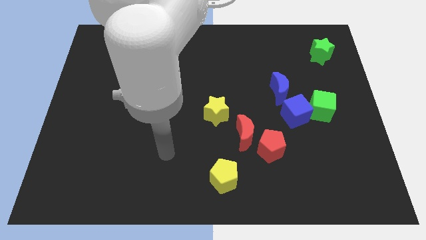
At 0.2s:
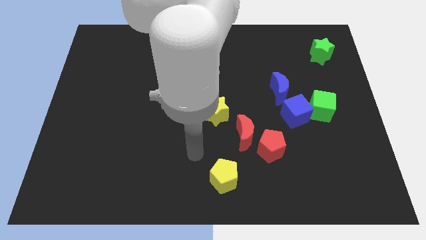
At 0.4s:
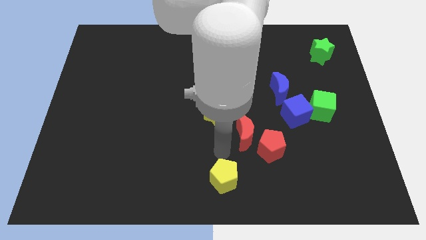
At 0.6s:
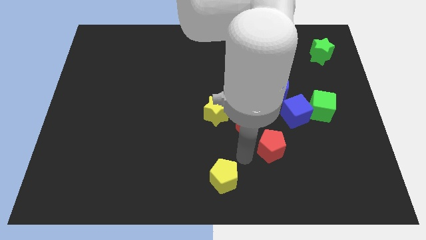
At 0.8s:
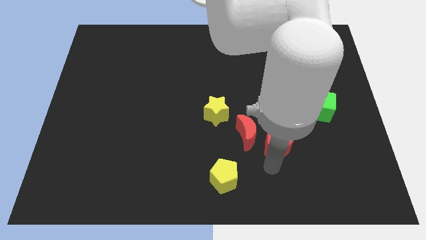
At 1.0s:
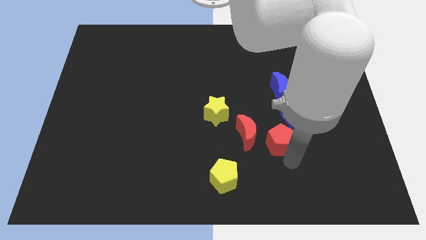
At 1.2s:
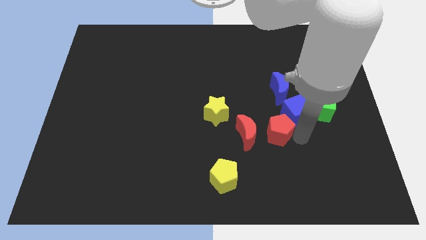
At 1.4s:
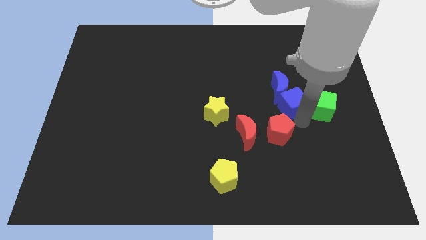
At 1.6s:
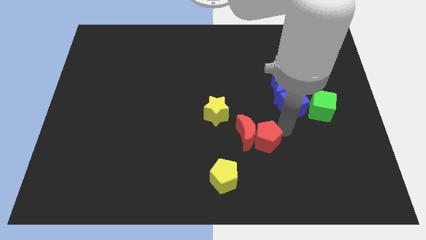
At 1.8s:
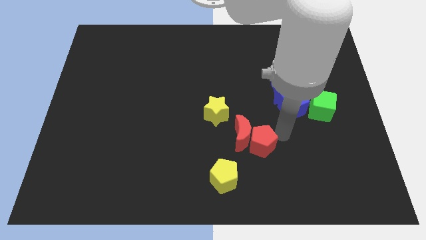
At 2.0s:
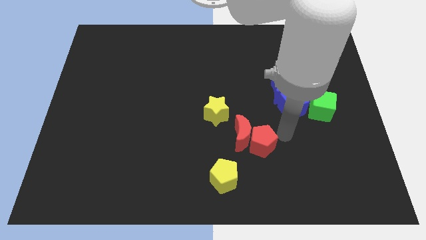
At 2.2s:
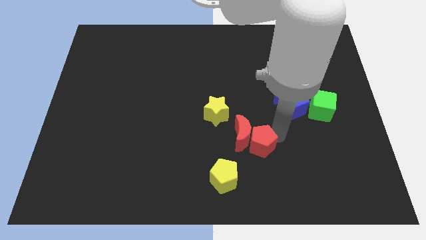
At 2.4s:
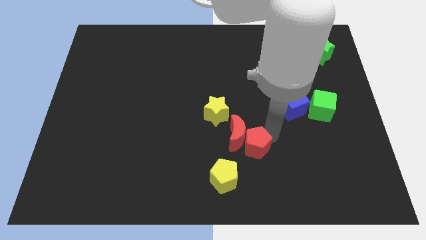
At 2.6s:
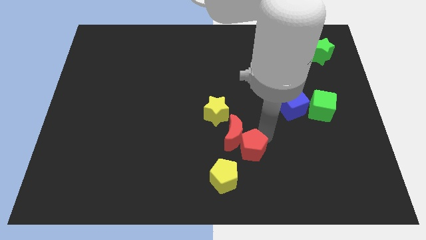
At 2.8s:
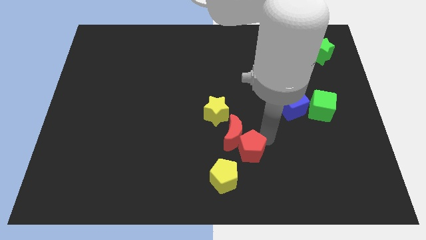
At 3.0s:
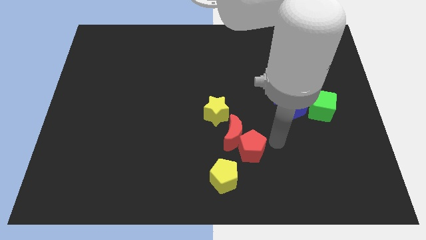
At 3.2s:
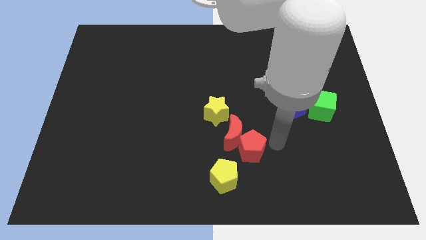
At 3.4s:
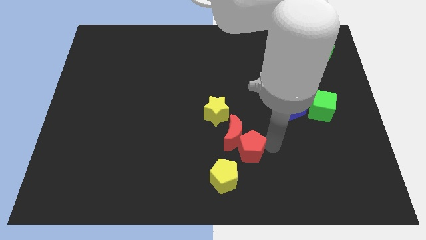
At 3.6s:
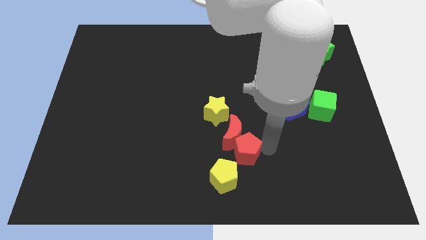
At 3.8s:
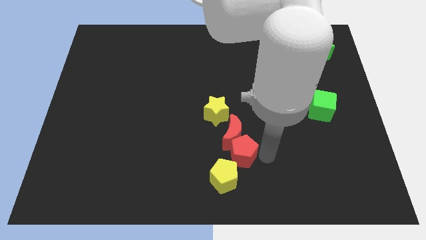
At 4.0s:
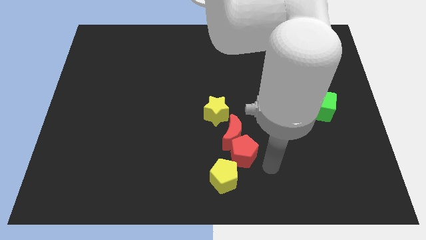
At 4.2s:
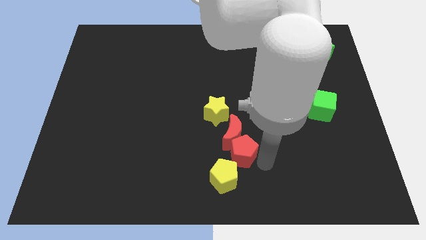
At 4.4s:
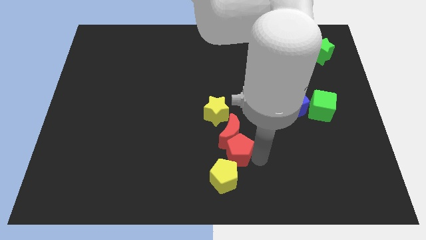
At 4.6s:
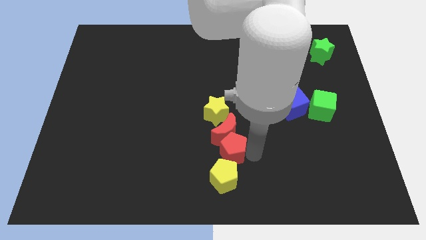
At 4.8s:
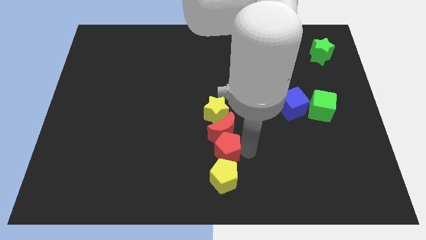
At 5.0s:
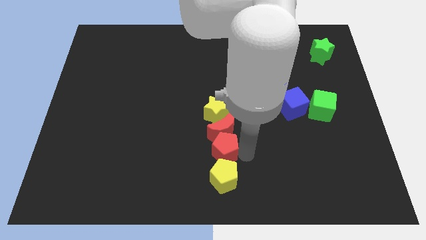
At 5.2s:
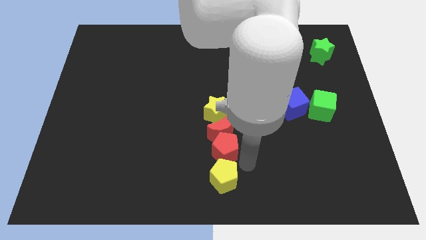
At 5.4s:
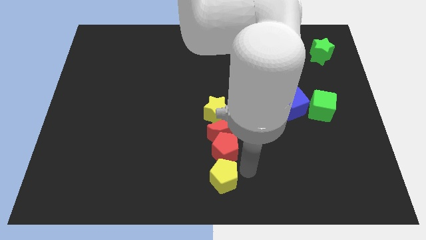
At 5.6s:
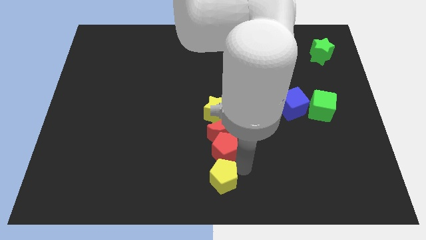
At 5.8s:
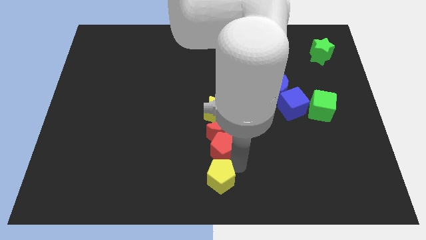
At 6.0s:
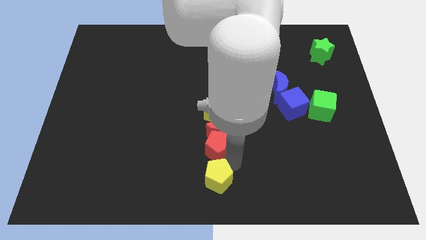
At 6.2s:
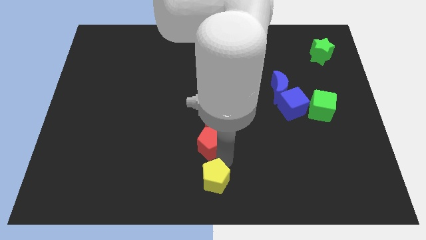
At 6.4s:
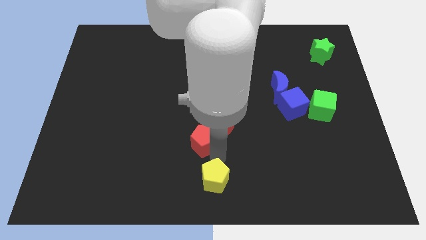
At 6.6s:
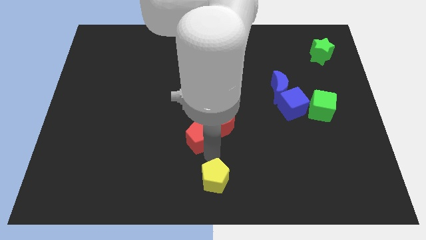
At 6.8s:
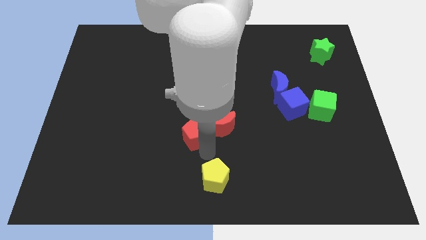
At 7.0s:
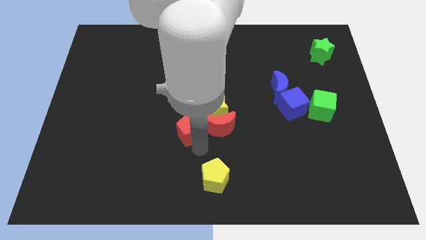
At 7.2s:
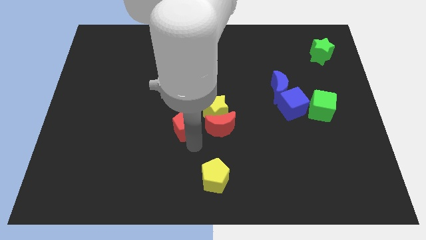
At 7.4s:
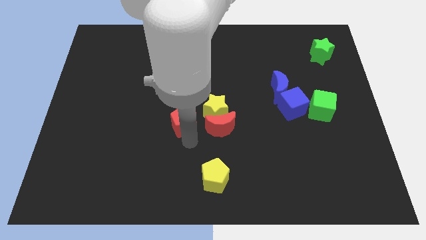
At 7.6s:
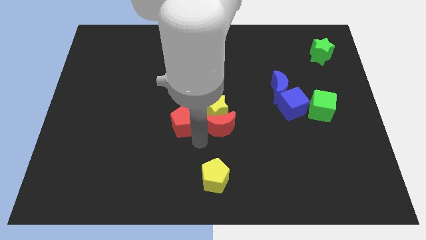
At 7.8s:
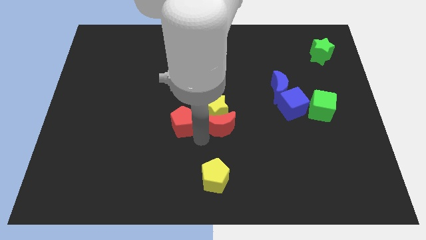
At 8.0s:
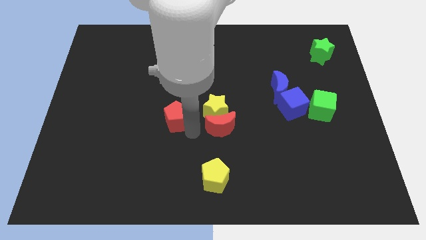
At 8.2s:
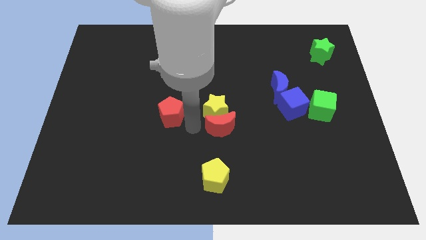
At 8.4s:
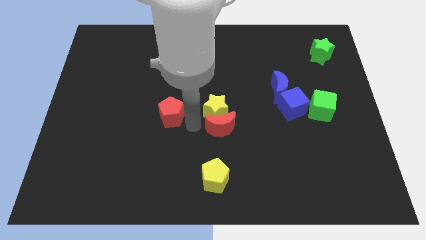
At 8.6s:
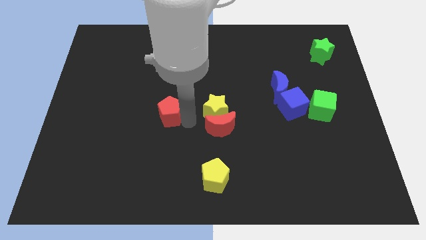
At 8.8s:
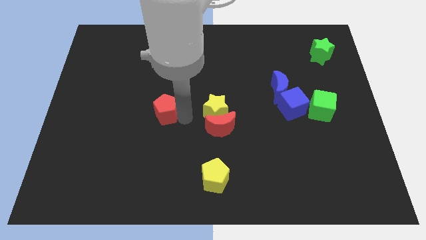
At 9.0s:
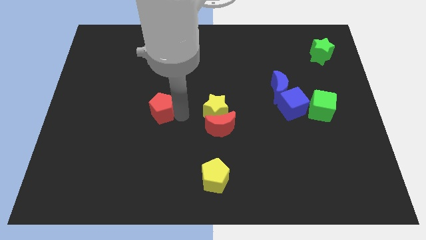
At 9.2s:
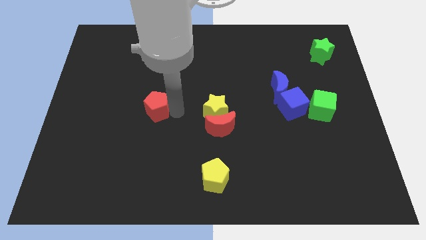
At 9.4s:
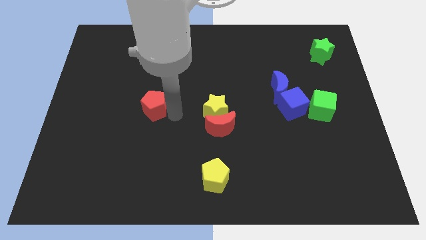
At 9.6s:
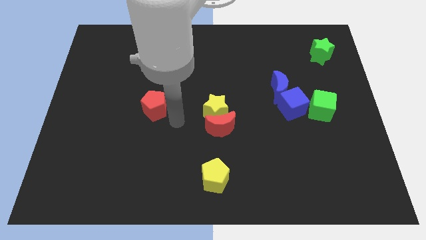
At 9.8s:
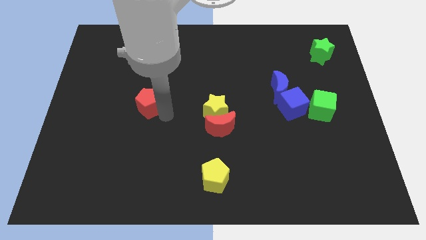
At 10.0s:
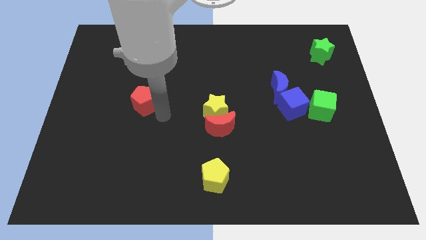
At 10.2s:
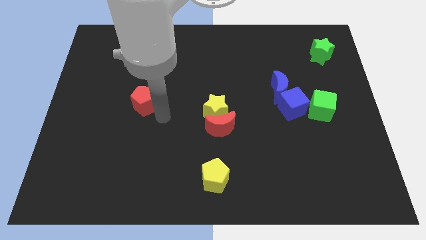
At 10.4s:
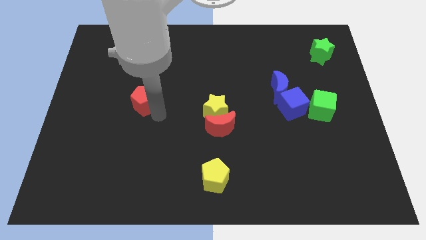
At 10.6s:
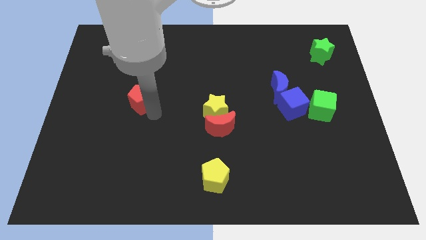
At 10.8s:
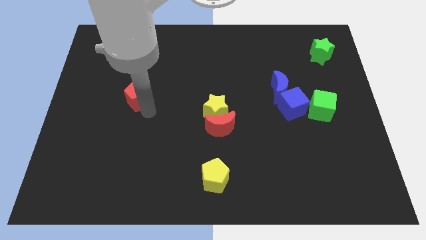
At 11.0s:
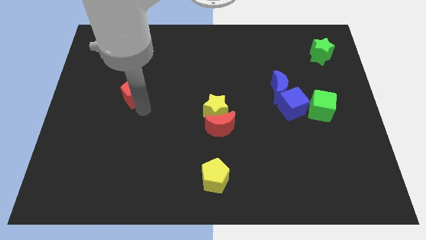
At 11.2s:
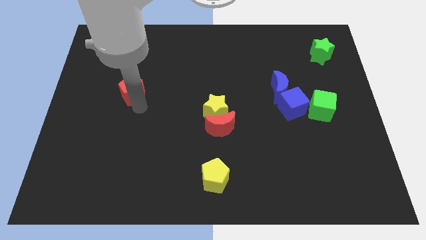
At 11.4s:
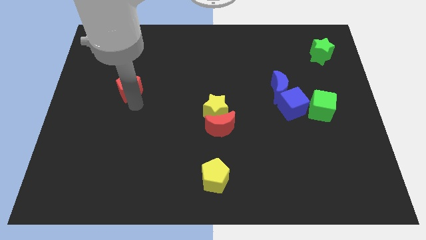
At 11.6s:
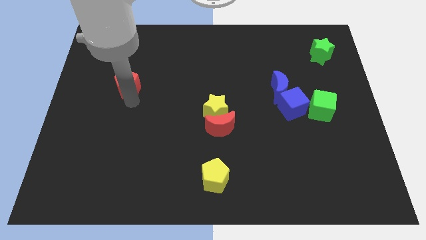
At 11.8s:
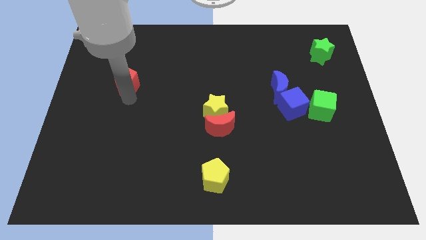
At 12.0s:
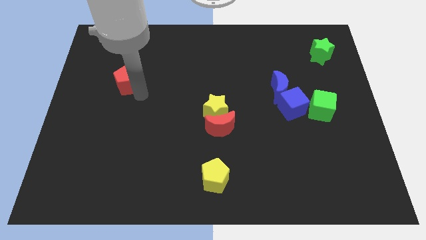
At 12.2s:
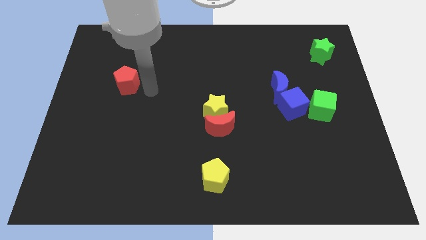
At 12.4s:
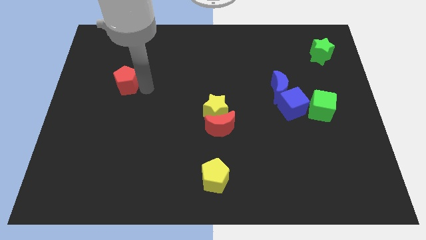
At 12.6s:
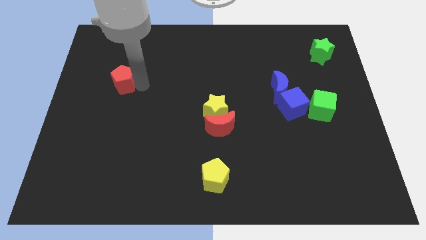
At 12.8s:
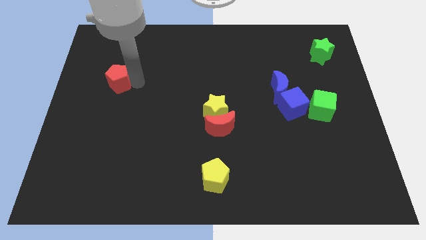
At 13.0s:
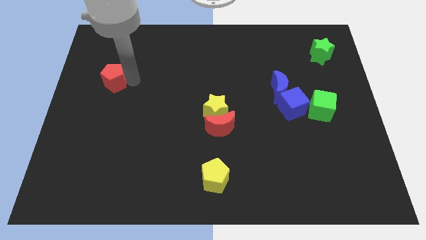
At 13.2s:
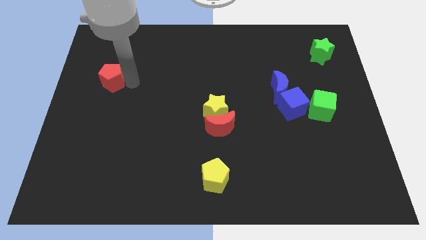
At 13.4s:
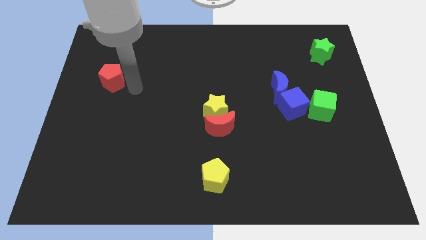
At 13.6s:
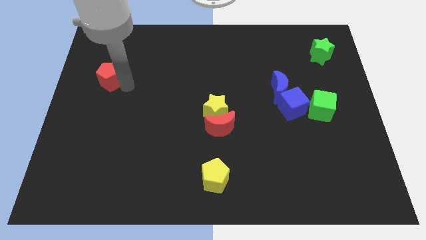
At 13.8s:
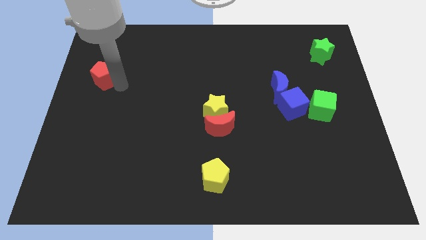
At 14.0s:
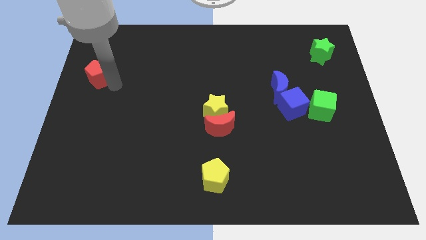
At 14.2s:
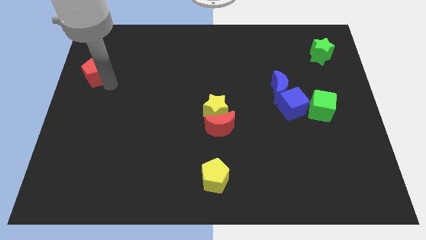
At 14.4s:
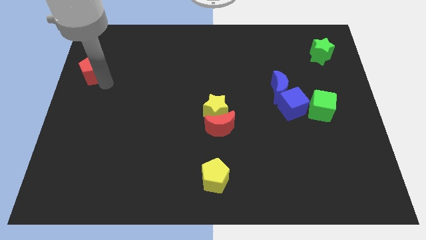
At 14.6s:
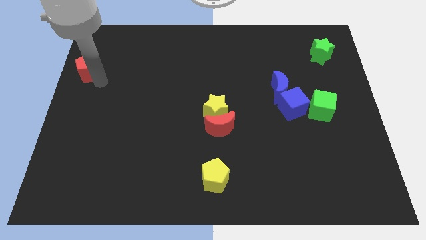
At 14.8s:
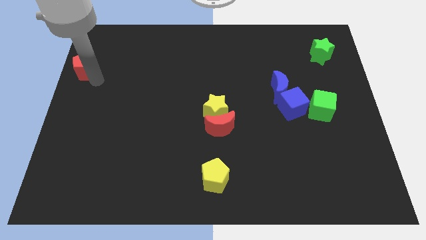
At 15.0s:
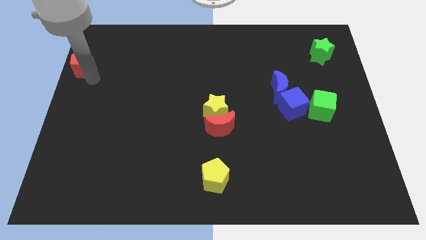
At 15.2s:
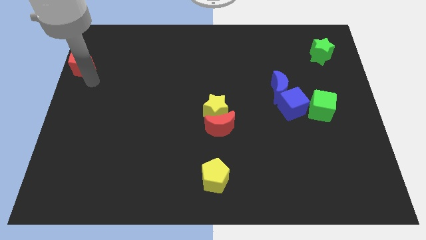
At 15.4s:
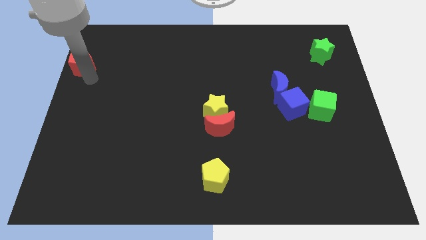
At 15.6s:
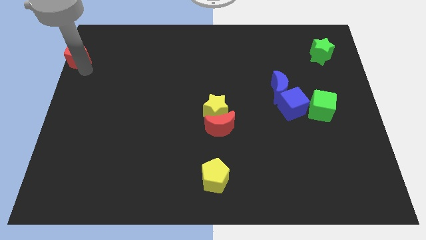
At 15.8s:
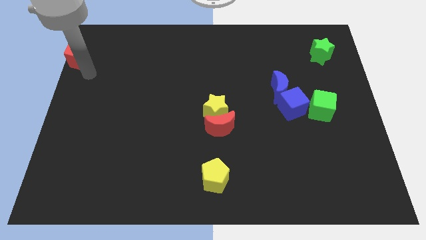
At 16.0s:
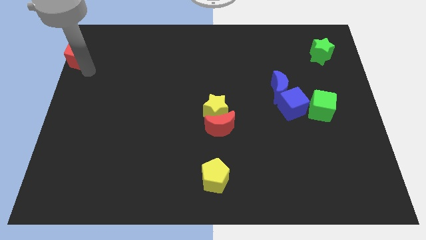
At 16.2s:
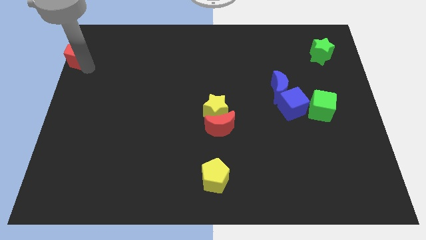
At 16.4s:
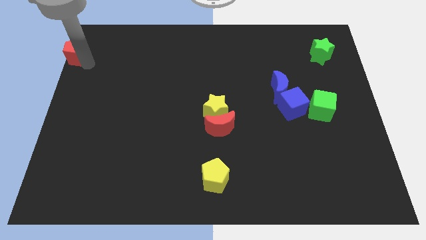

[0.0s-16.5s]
put the red pentagon to the top left of the board
